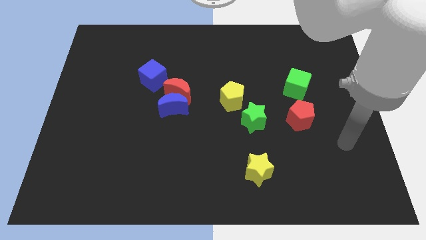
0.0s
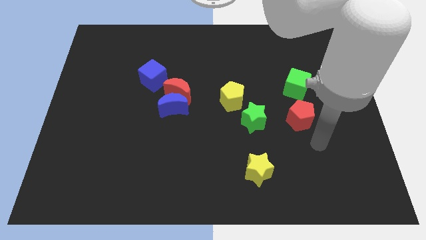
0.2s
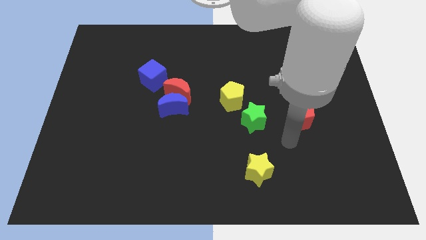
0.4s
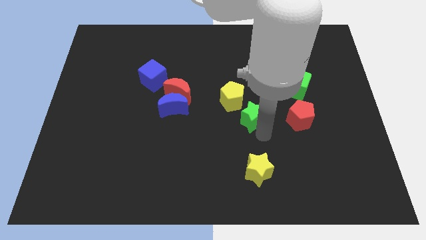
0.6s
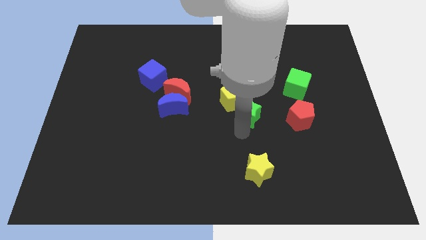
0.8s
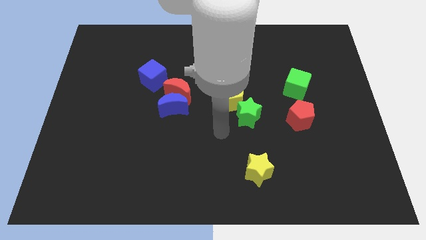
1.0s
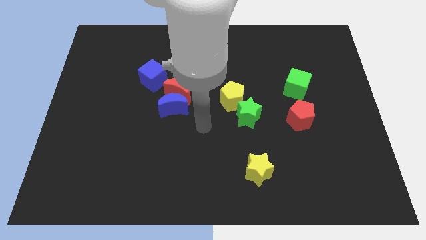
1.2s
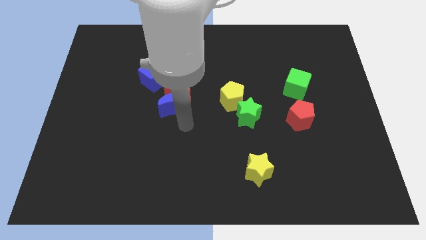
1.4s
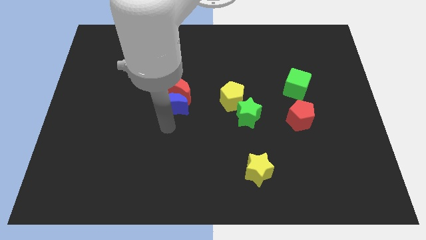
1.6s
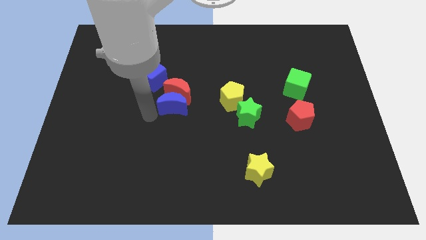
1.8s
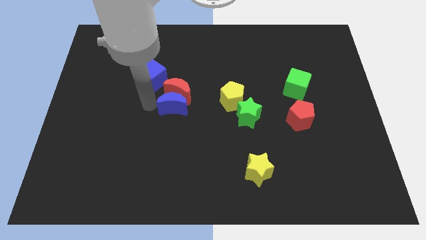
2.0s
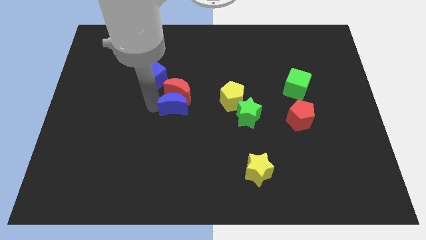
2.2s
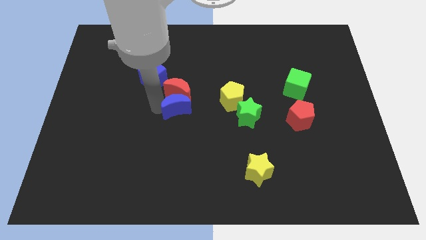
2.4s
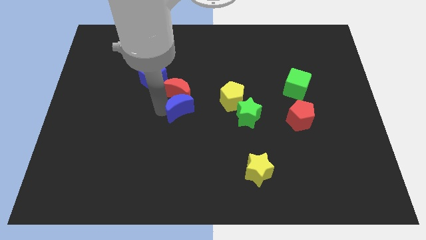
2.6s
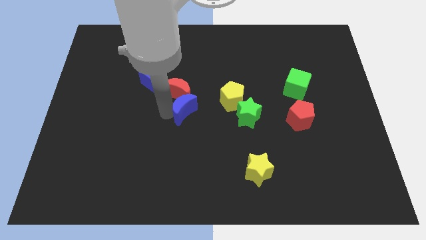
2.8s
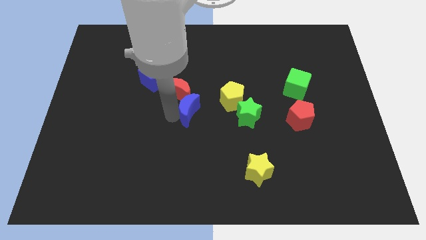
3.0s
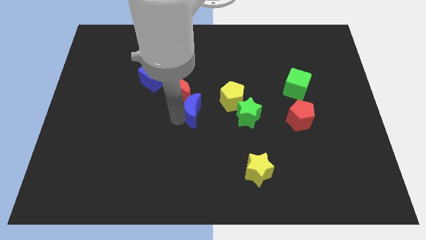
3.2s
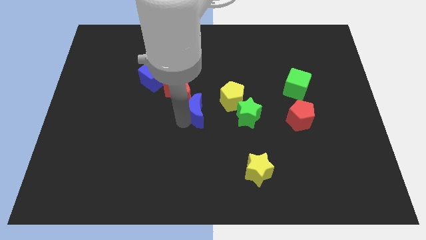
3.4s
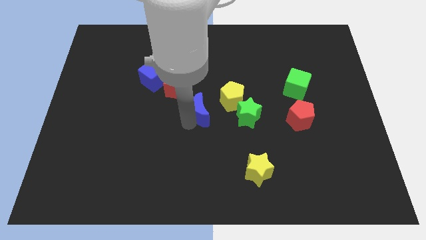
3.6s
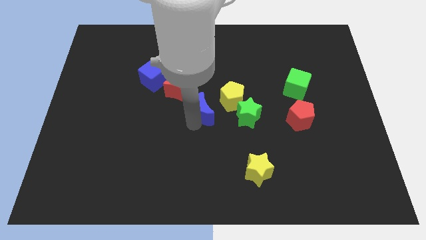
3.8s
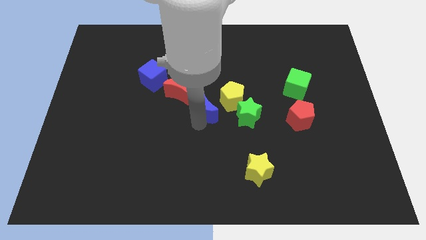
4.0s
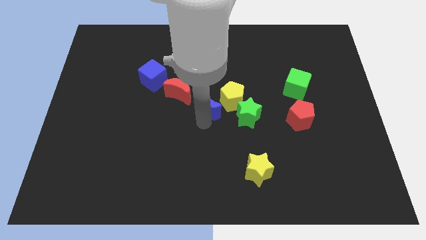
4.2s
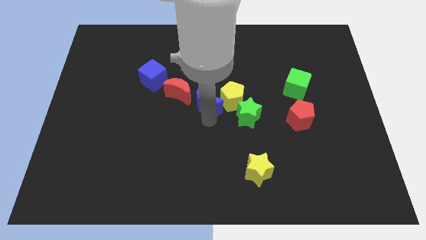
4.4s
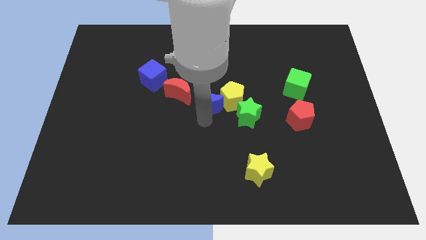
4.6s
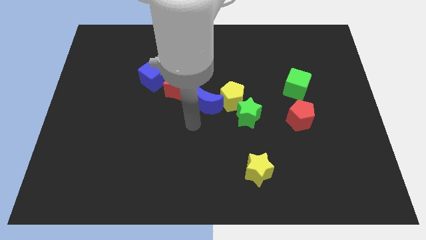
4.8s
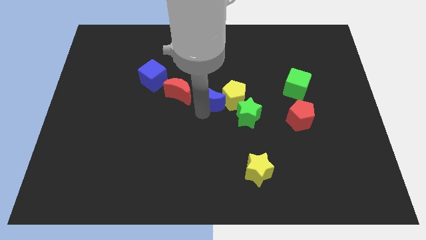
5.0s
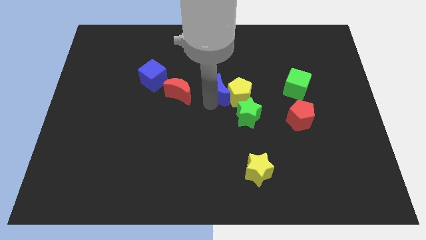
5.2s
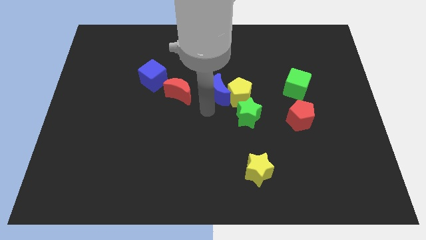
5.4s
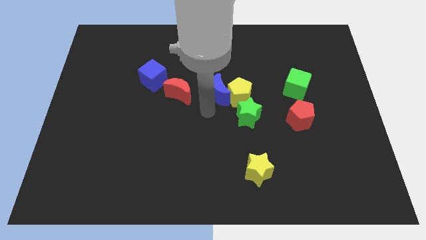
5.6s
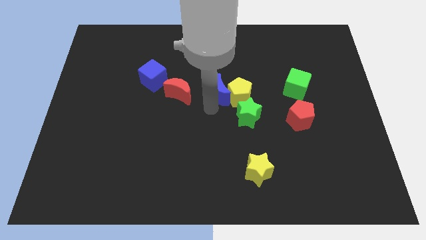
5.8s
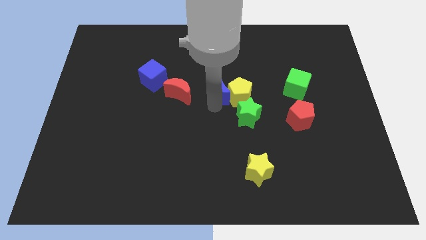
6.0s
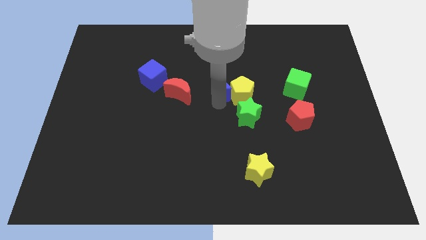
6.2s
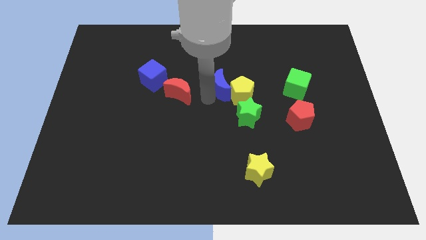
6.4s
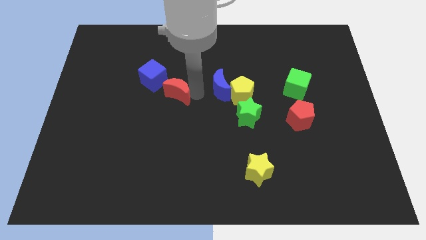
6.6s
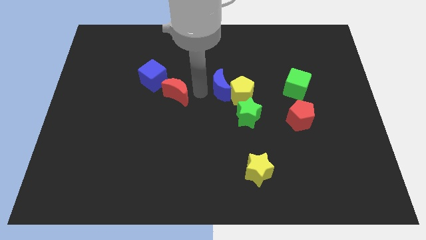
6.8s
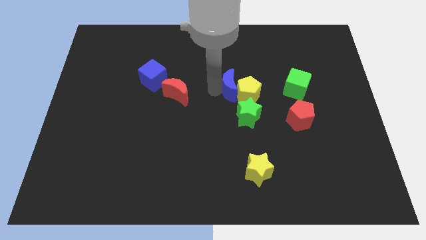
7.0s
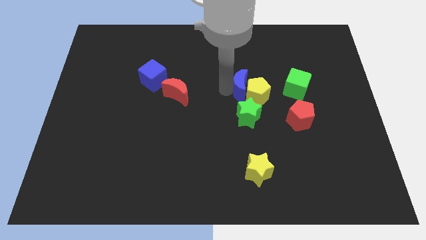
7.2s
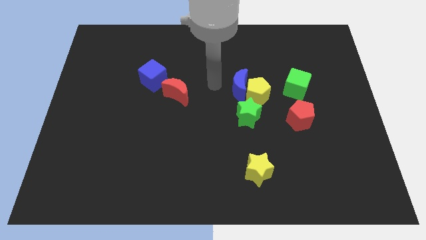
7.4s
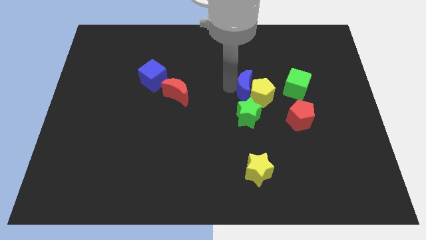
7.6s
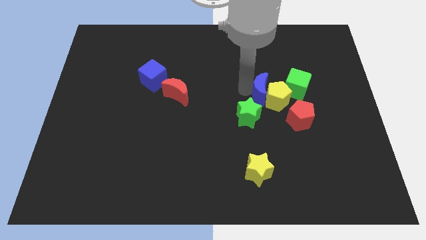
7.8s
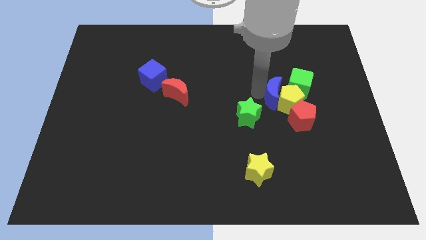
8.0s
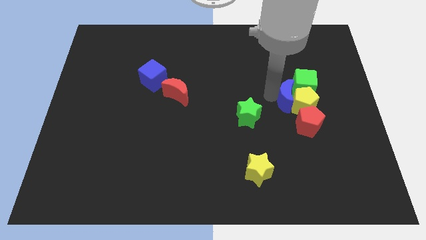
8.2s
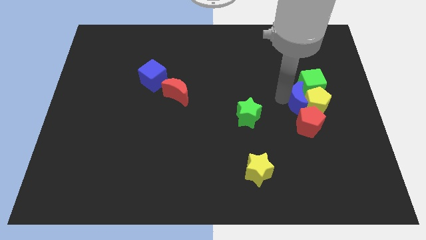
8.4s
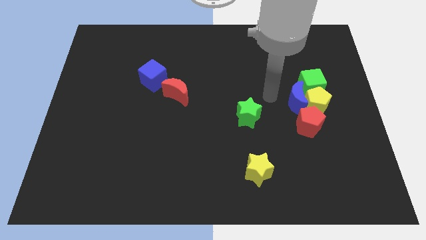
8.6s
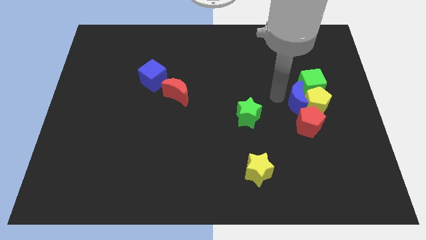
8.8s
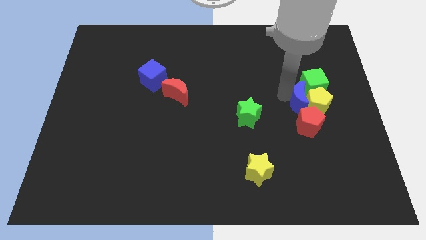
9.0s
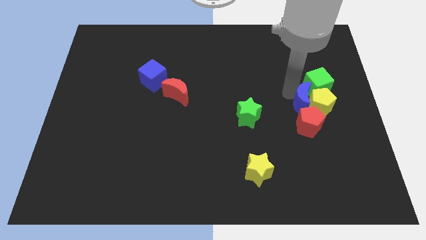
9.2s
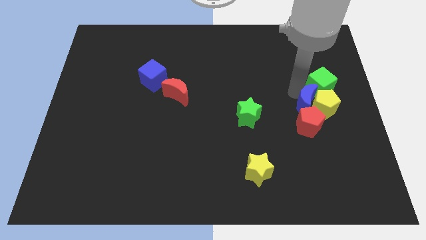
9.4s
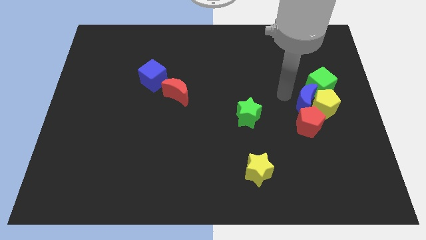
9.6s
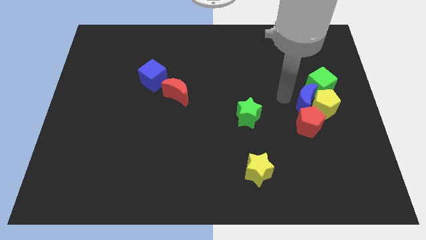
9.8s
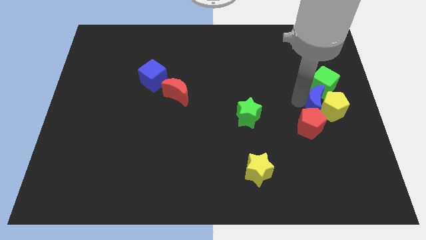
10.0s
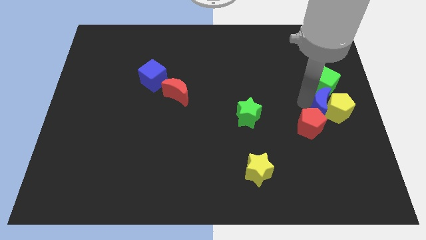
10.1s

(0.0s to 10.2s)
slide the blue moon to the center right
